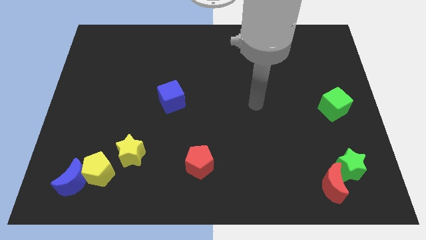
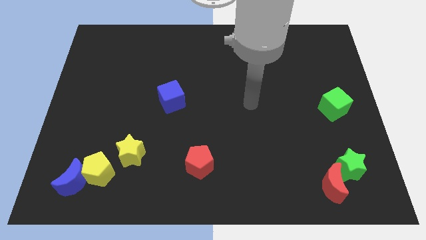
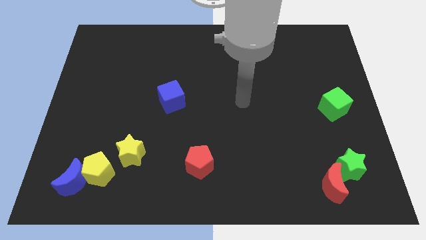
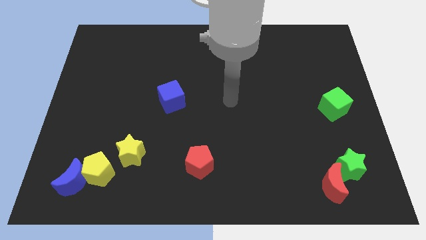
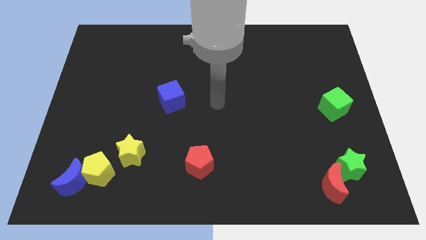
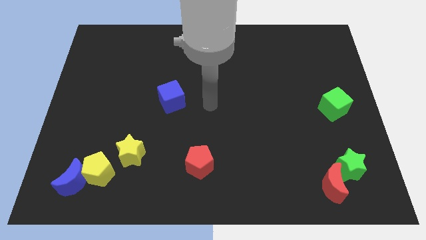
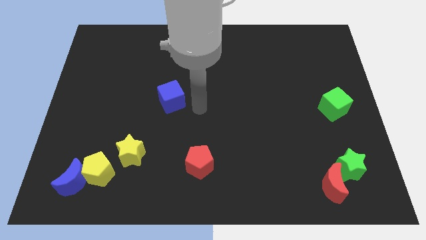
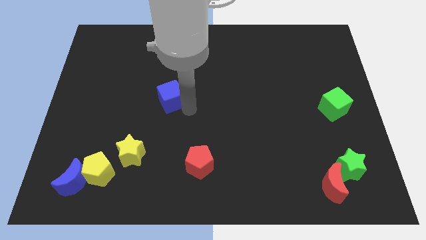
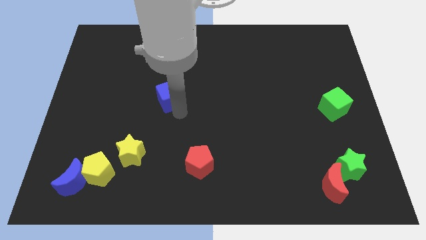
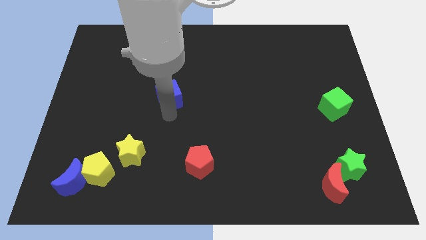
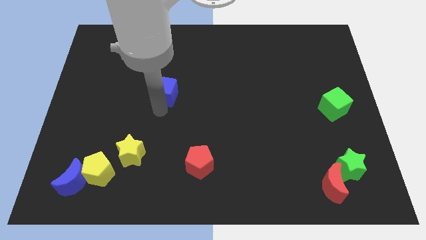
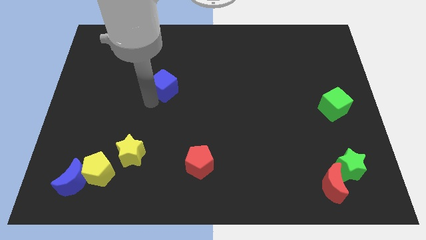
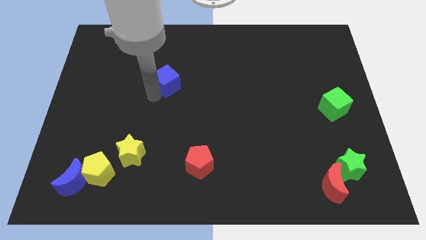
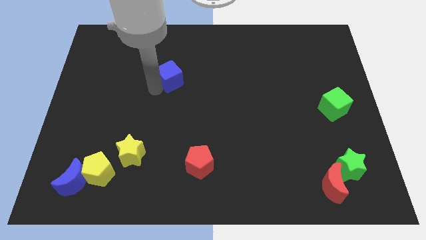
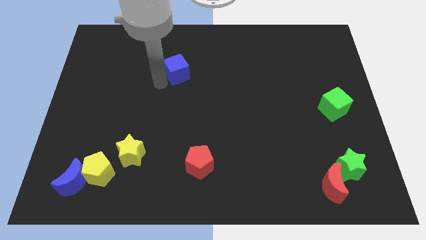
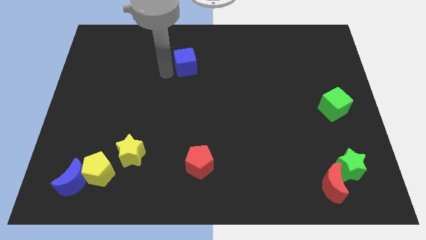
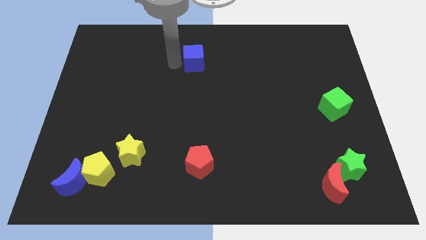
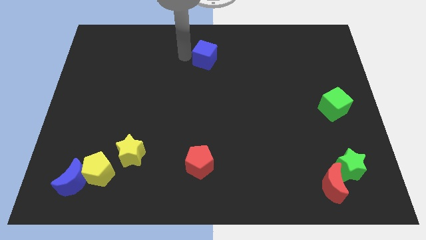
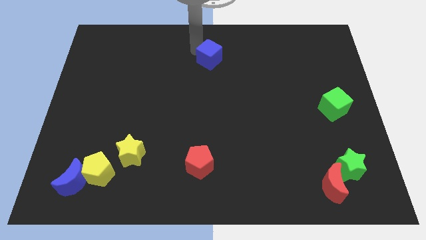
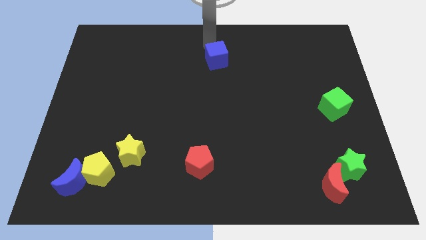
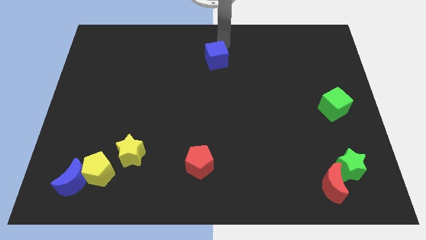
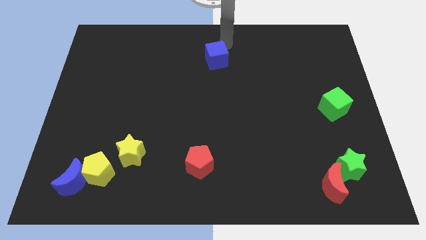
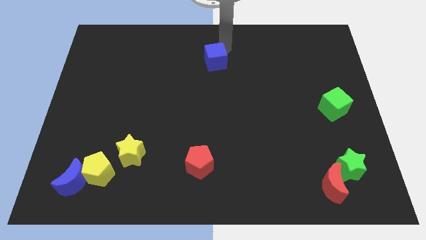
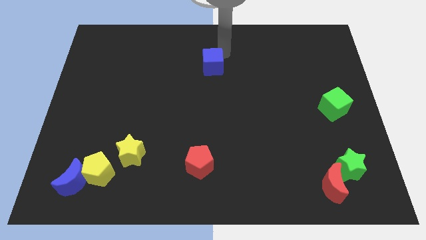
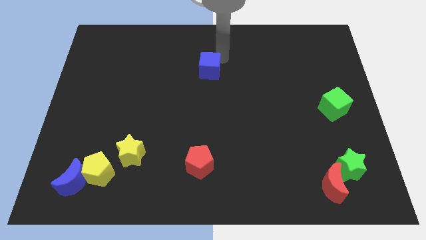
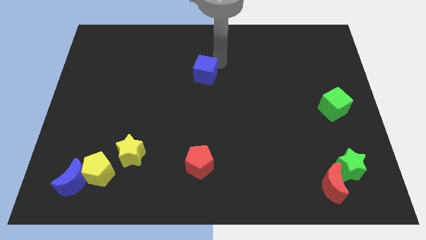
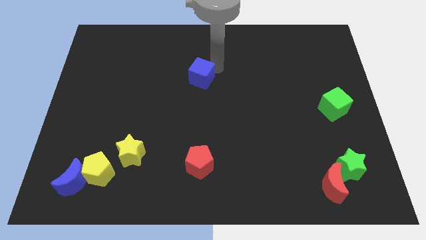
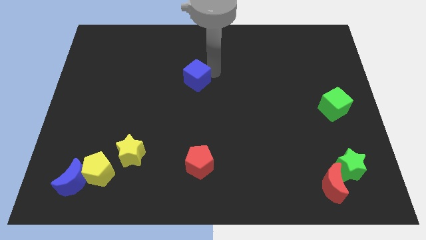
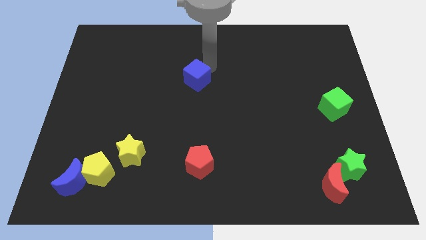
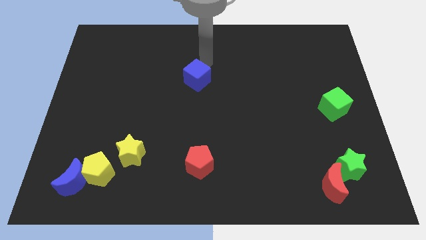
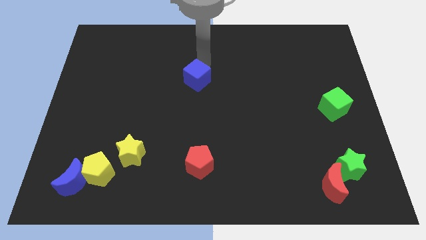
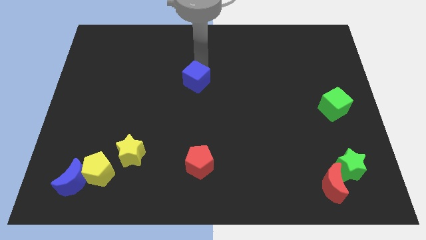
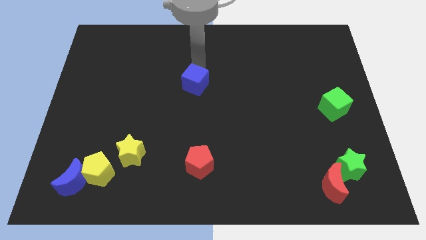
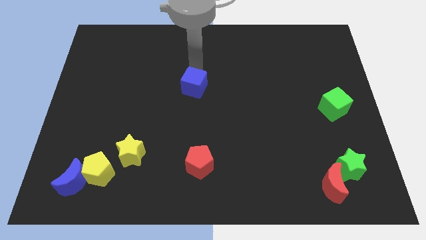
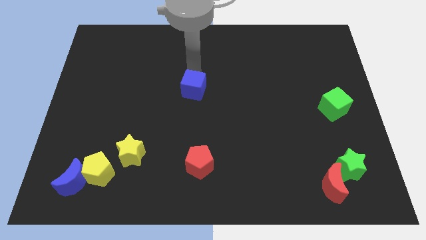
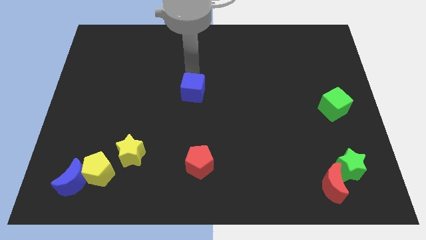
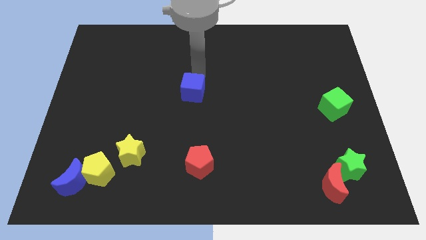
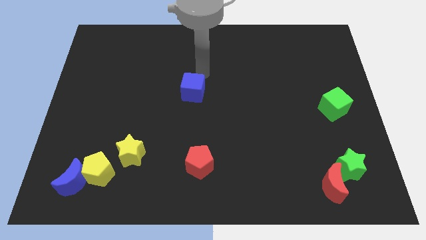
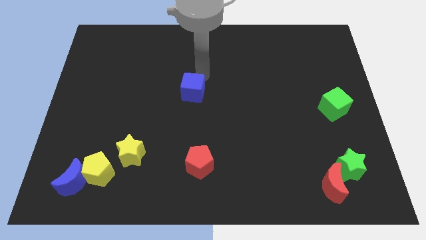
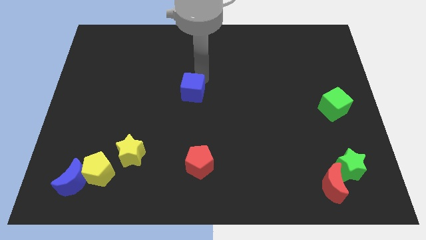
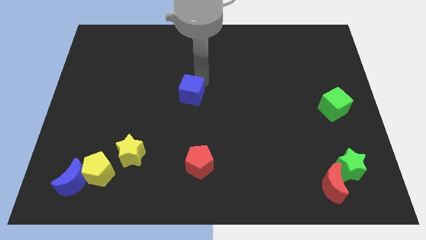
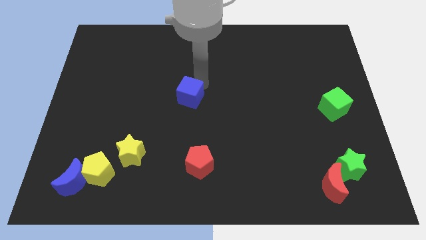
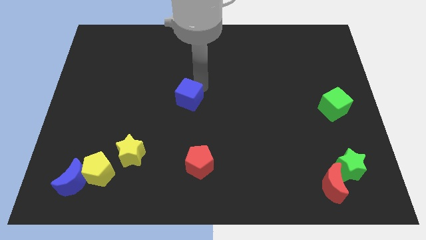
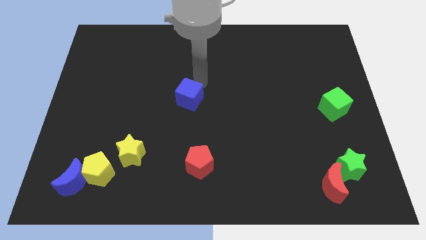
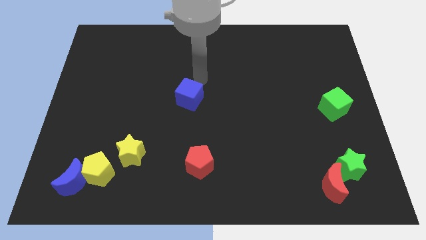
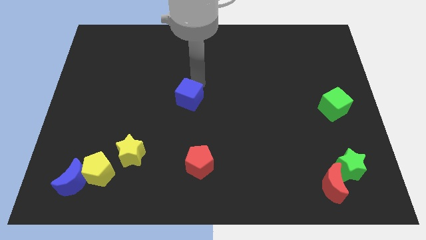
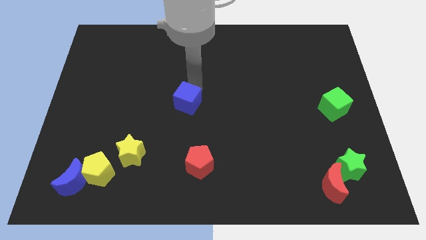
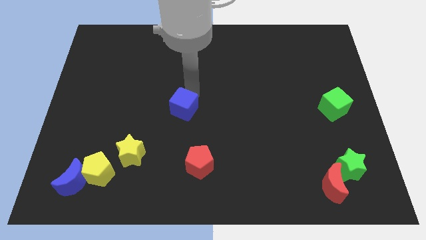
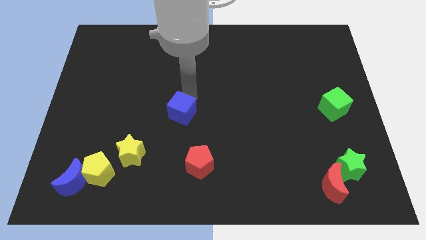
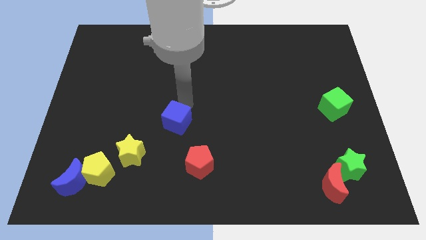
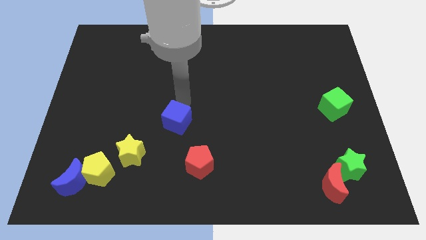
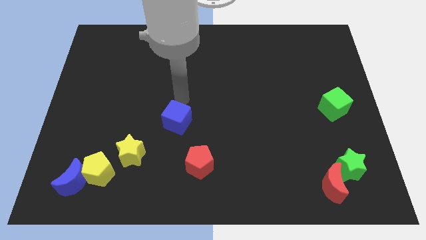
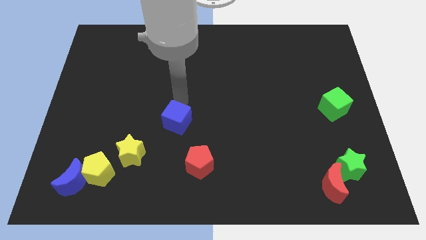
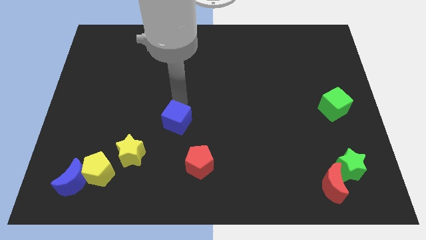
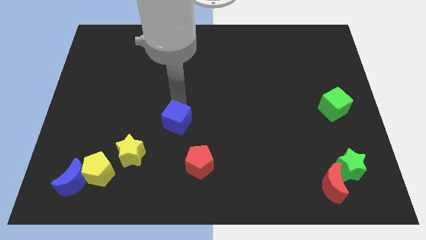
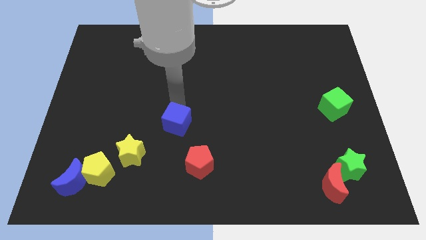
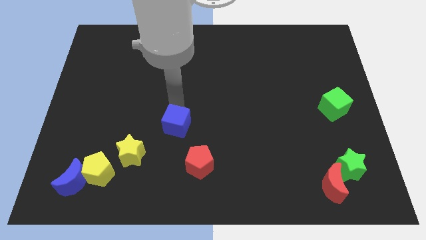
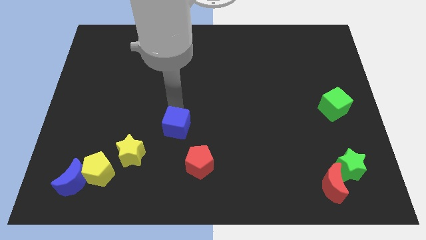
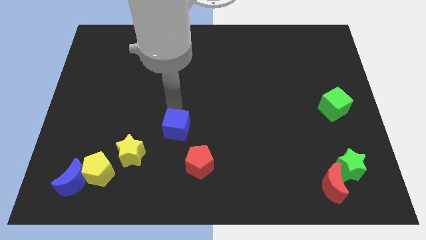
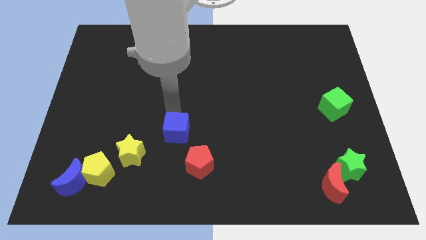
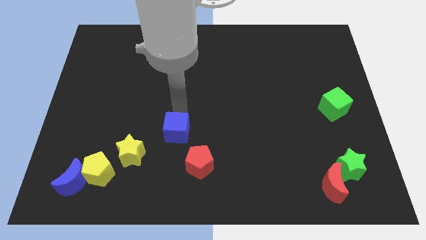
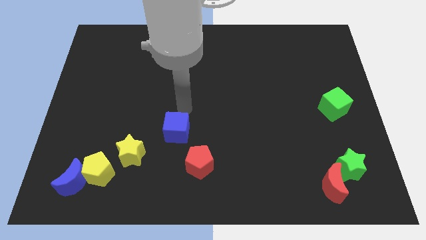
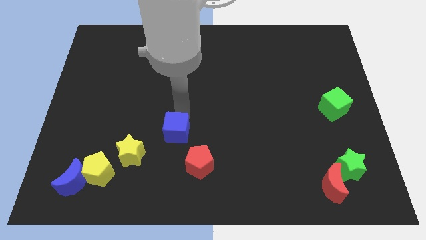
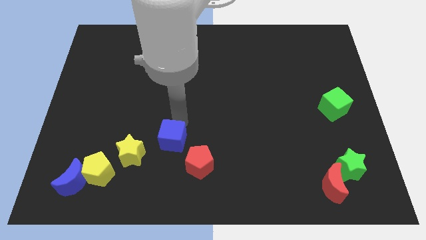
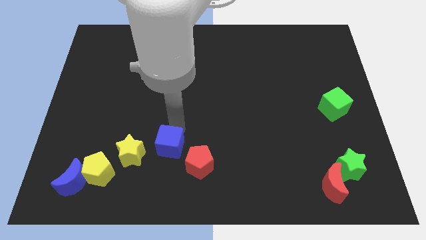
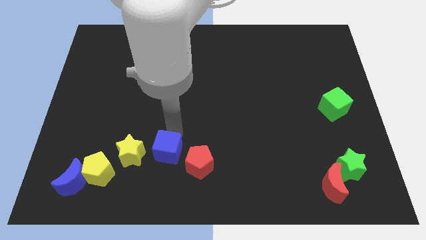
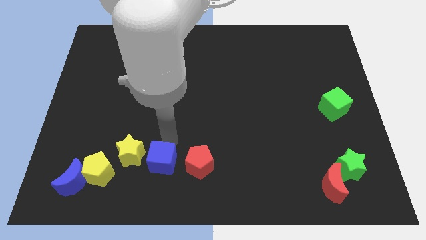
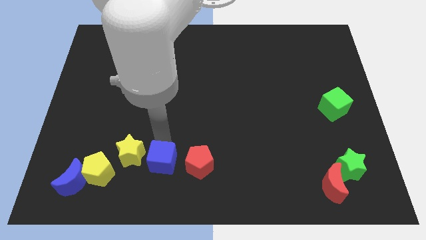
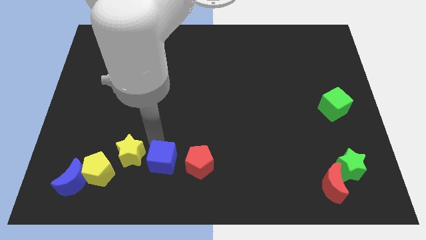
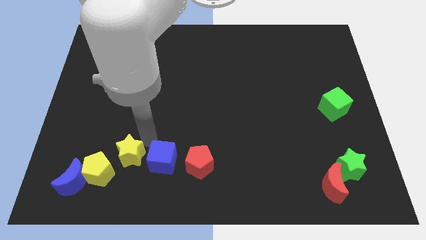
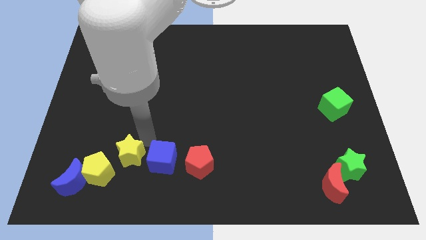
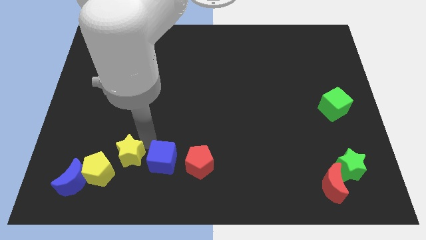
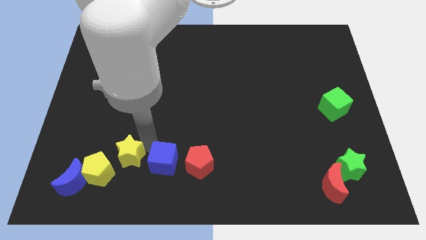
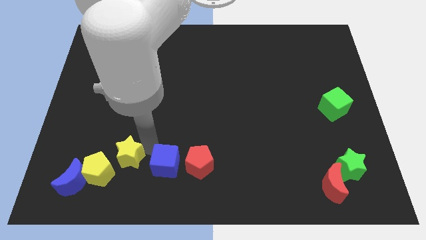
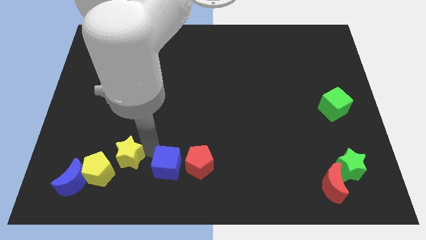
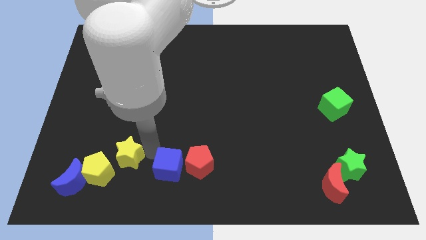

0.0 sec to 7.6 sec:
put the blue cube to the bottom
